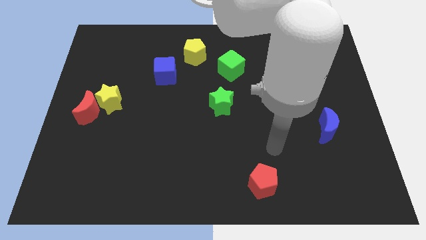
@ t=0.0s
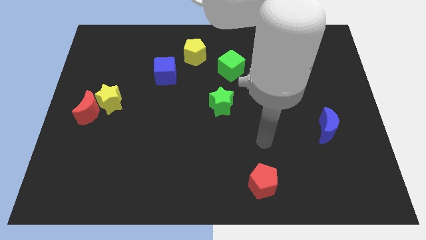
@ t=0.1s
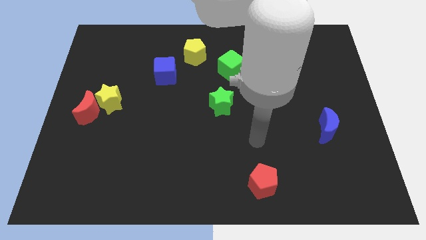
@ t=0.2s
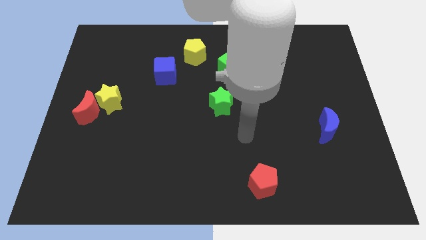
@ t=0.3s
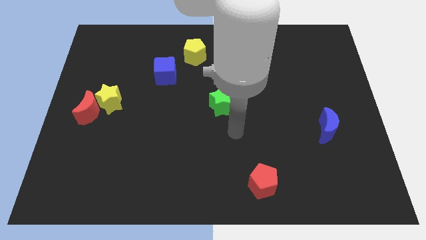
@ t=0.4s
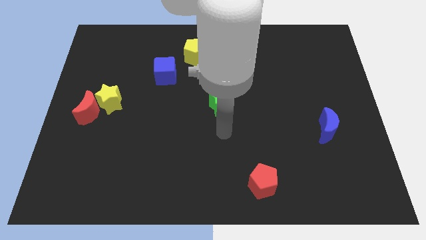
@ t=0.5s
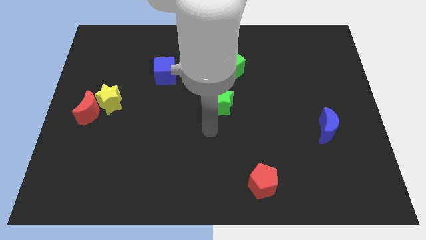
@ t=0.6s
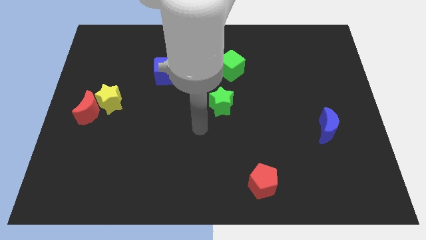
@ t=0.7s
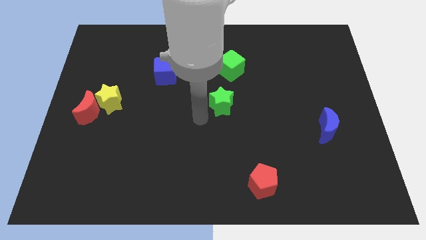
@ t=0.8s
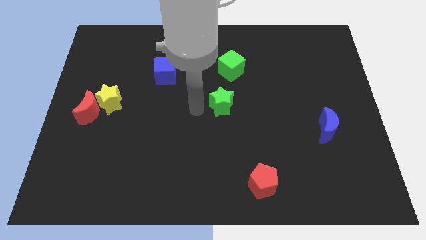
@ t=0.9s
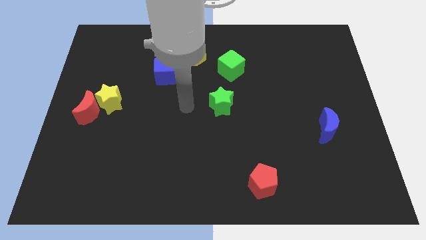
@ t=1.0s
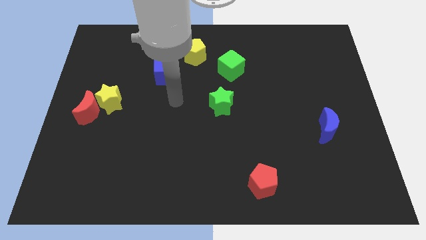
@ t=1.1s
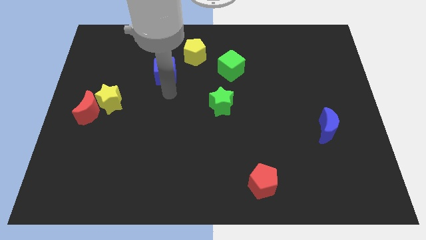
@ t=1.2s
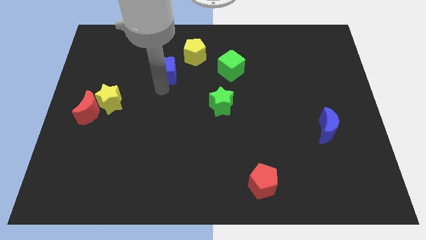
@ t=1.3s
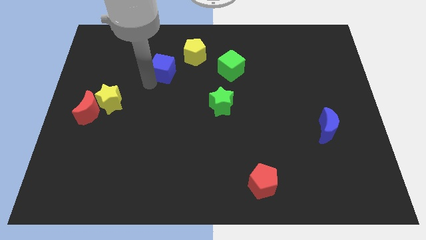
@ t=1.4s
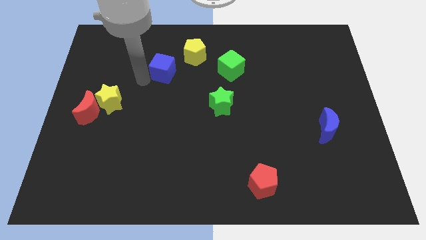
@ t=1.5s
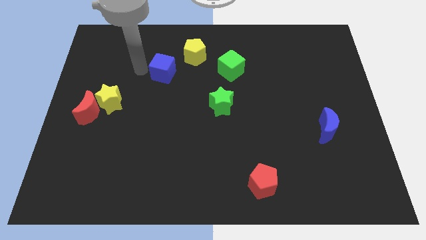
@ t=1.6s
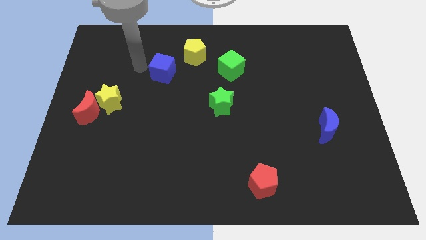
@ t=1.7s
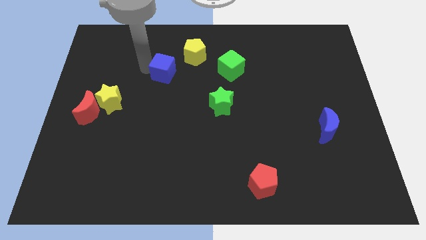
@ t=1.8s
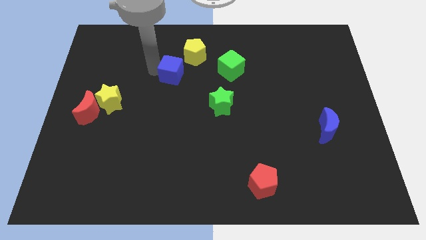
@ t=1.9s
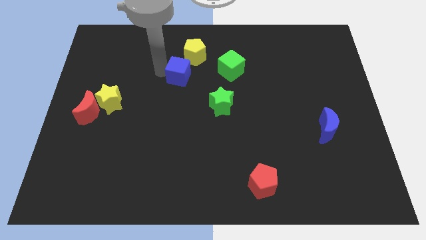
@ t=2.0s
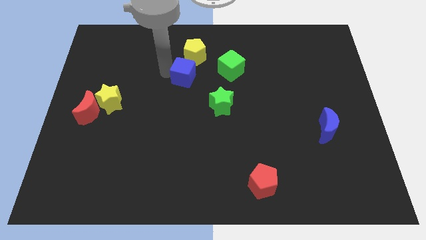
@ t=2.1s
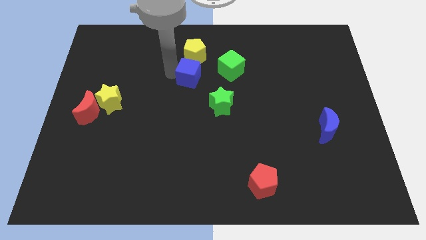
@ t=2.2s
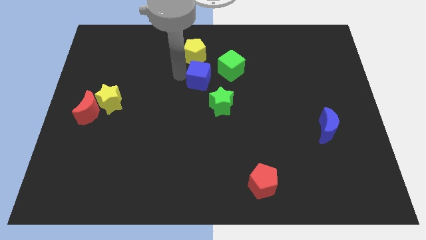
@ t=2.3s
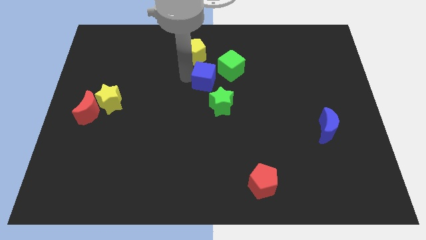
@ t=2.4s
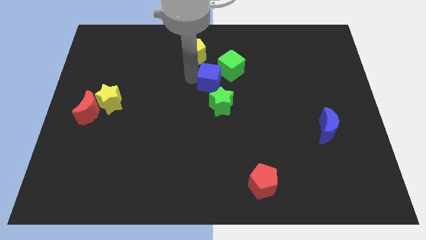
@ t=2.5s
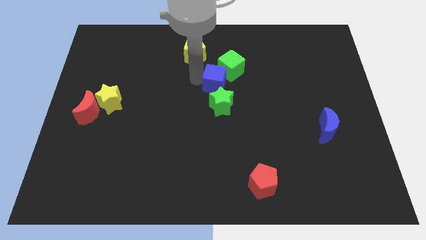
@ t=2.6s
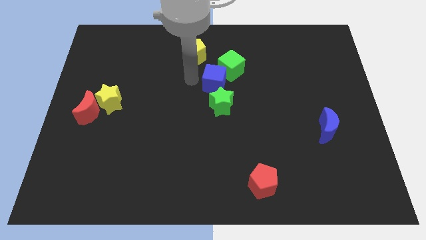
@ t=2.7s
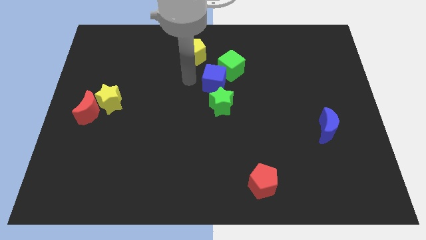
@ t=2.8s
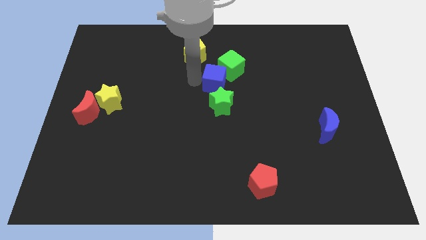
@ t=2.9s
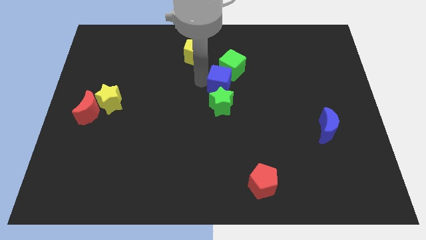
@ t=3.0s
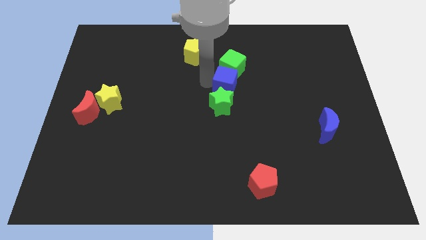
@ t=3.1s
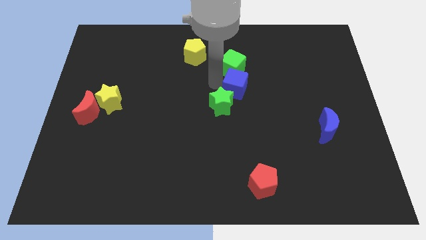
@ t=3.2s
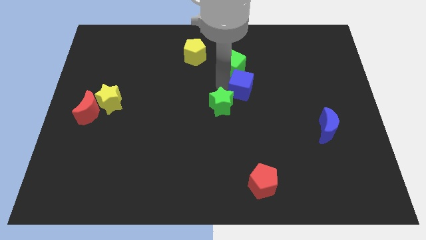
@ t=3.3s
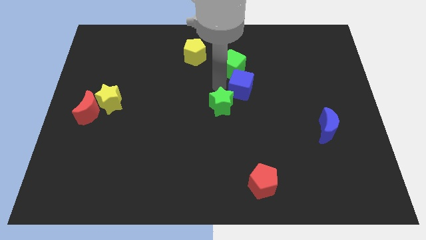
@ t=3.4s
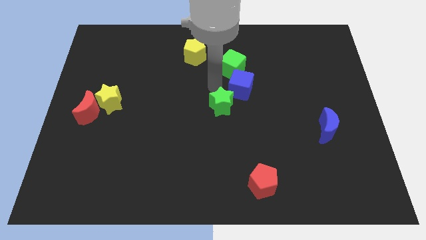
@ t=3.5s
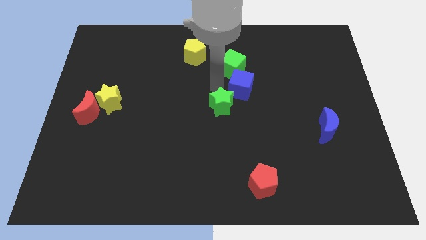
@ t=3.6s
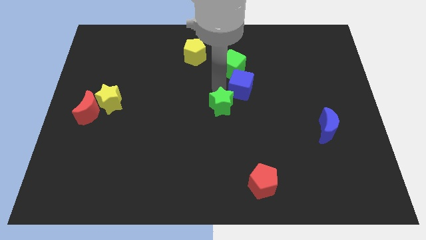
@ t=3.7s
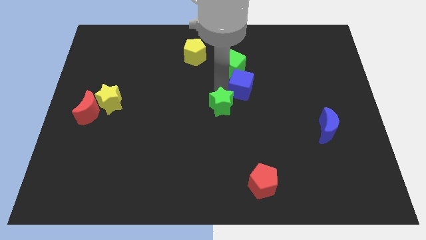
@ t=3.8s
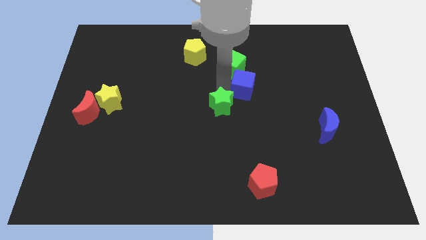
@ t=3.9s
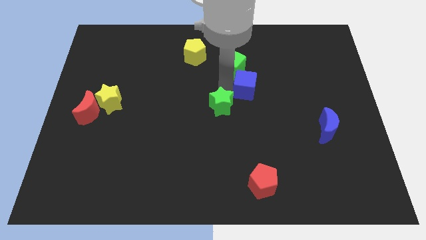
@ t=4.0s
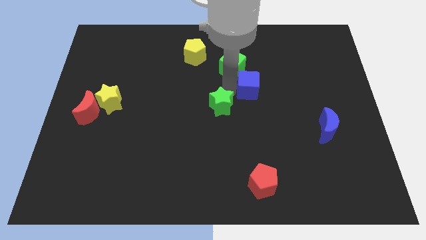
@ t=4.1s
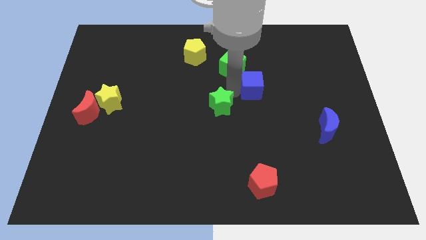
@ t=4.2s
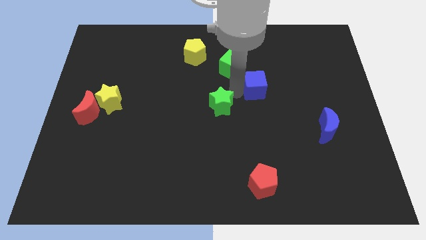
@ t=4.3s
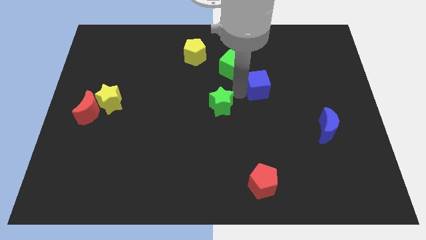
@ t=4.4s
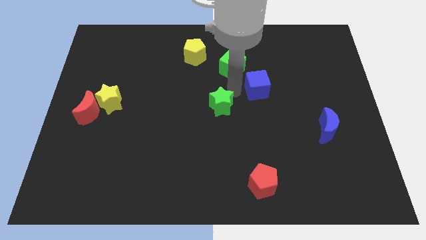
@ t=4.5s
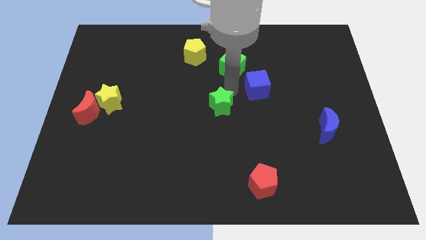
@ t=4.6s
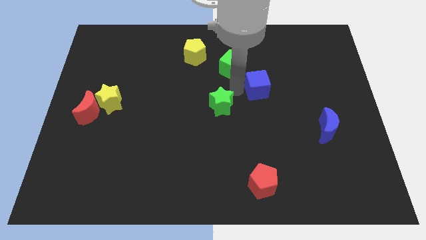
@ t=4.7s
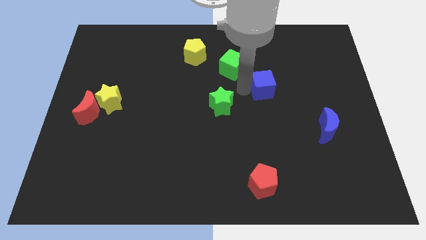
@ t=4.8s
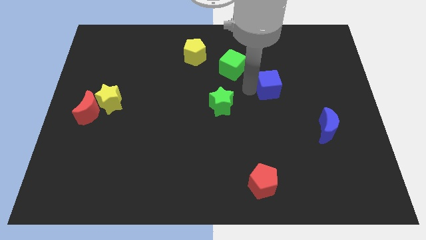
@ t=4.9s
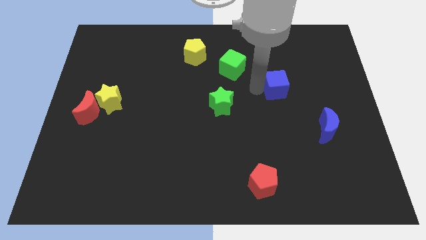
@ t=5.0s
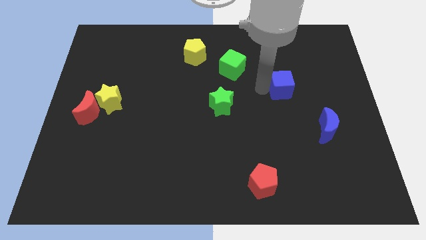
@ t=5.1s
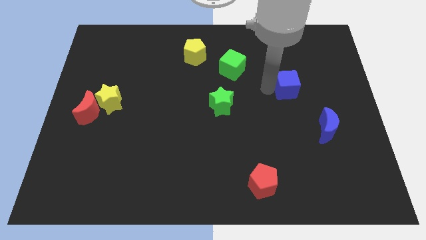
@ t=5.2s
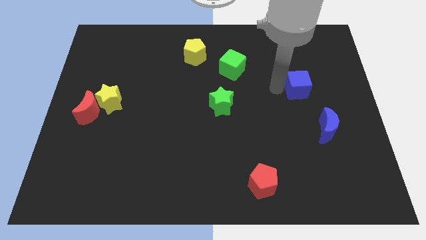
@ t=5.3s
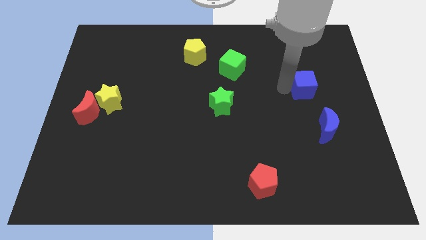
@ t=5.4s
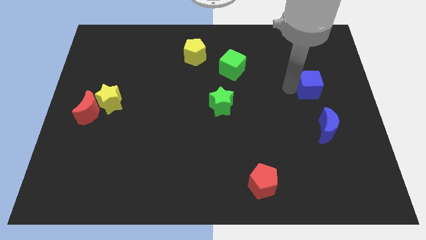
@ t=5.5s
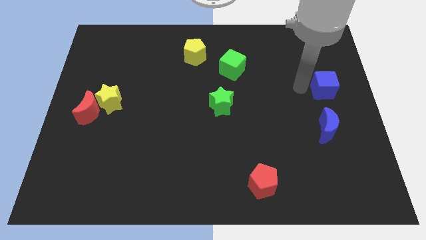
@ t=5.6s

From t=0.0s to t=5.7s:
slide the blue cube to the right side

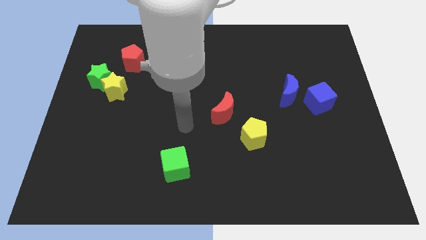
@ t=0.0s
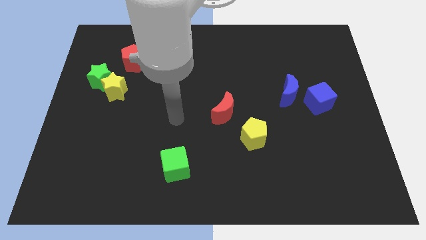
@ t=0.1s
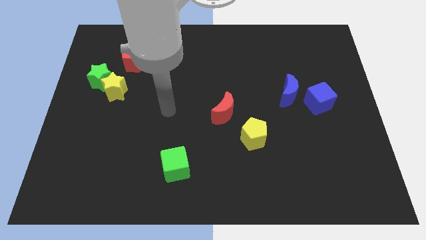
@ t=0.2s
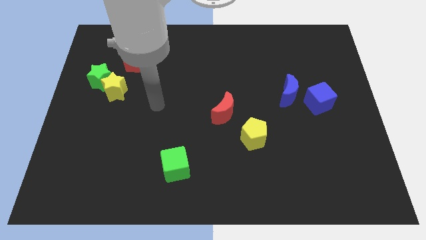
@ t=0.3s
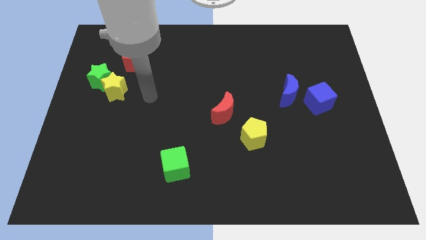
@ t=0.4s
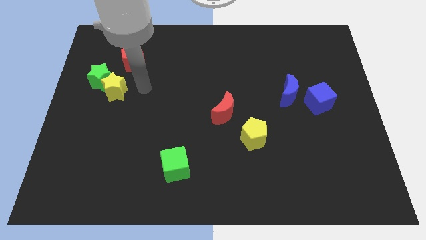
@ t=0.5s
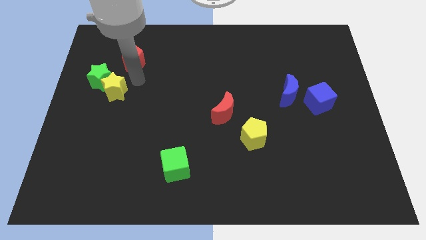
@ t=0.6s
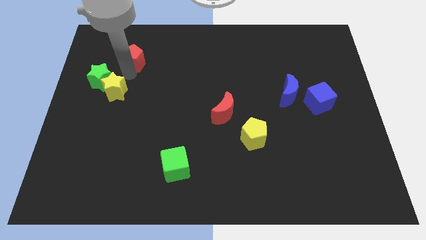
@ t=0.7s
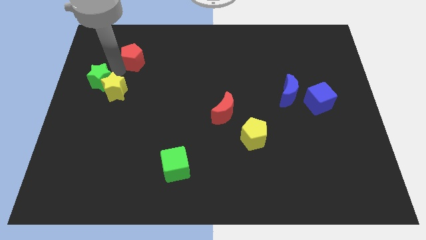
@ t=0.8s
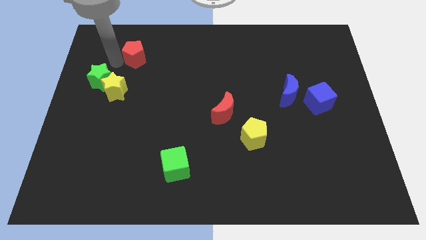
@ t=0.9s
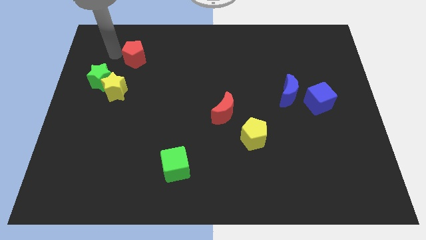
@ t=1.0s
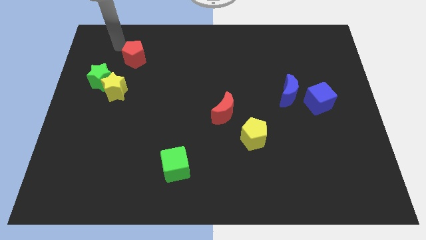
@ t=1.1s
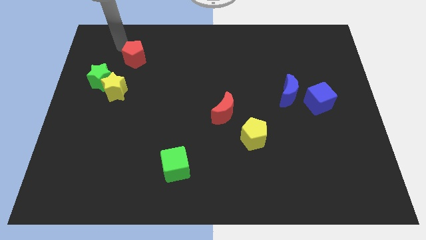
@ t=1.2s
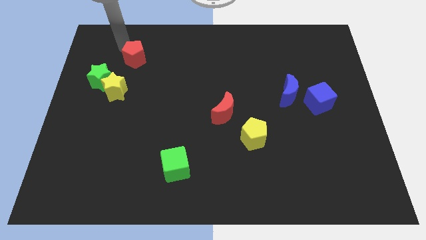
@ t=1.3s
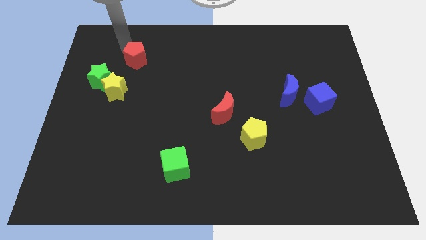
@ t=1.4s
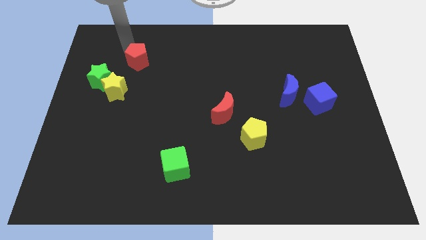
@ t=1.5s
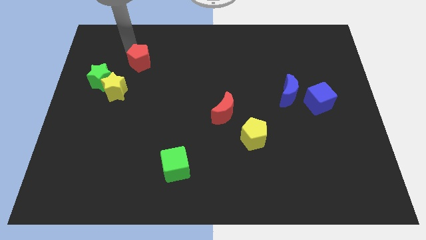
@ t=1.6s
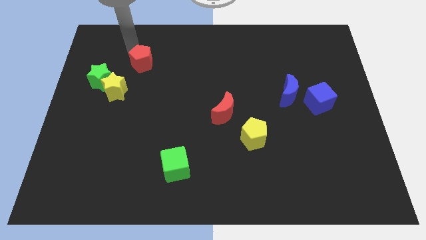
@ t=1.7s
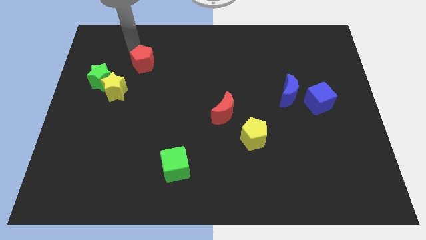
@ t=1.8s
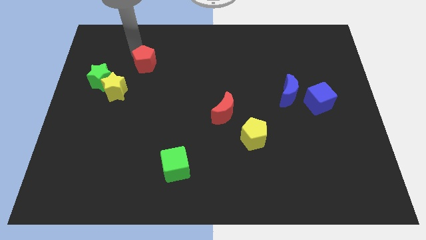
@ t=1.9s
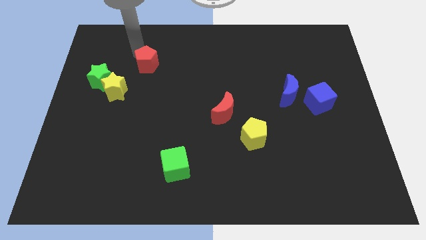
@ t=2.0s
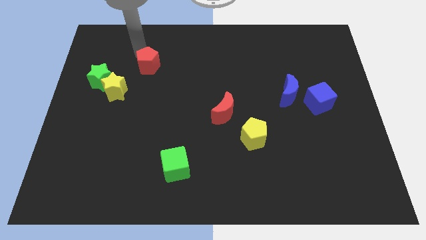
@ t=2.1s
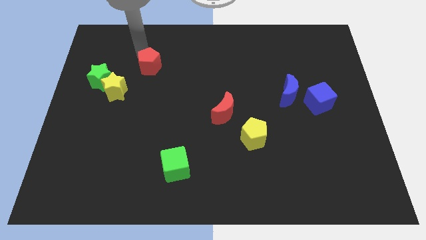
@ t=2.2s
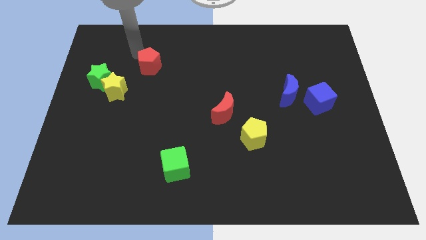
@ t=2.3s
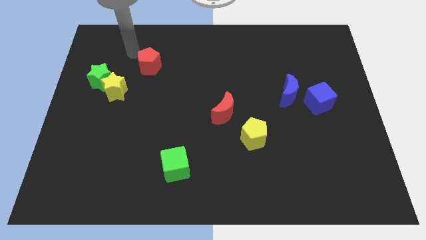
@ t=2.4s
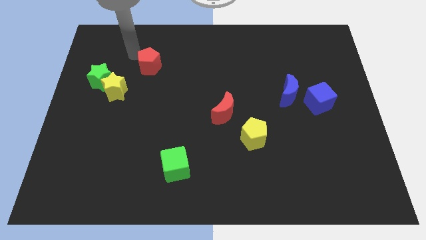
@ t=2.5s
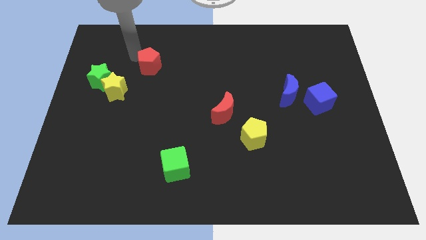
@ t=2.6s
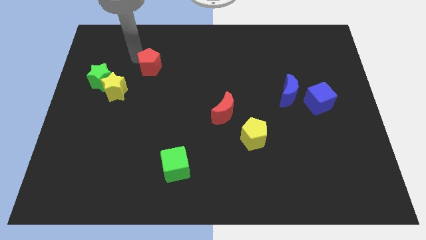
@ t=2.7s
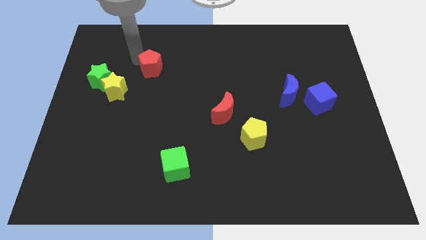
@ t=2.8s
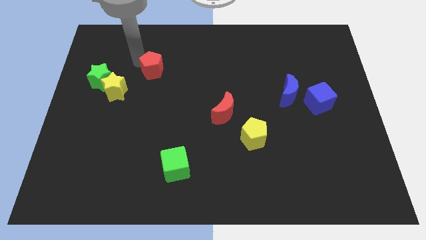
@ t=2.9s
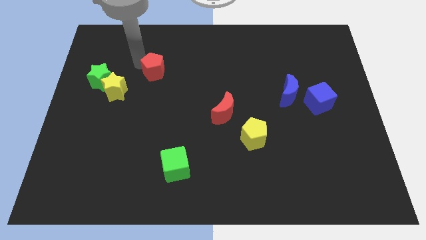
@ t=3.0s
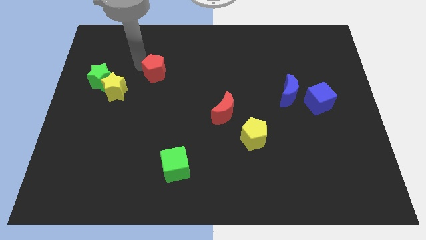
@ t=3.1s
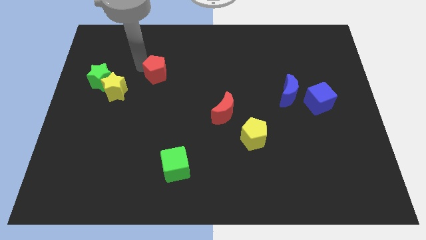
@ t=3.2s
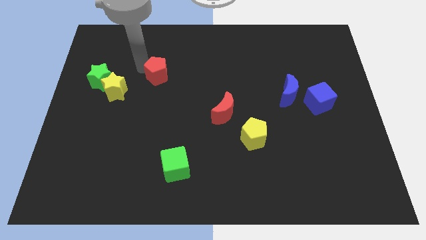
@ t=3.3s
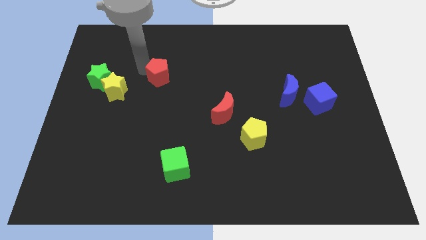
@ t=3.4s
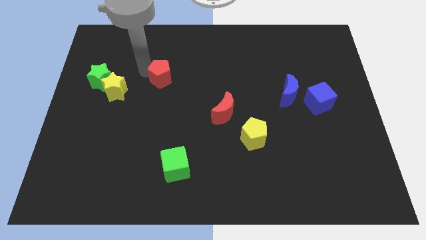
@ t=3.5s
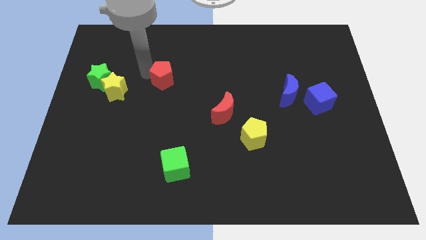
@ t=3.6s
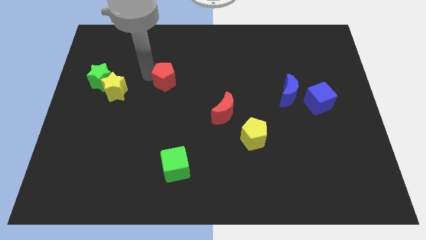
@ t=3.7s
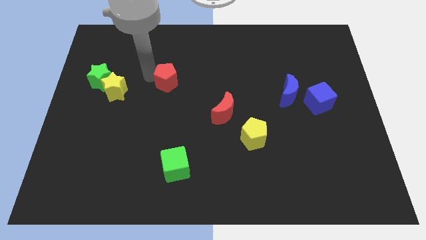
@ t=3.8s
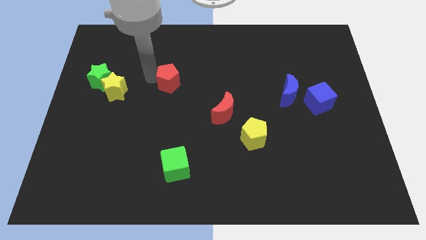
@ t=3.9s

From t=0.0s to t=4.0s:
move the red pentagon to the center
